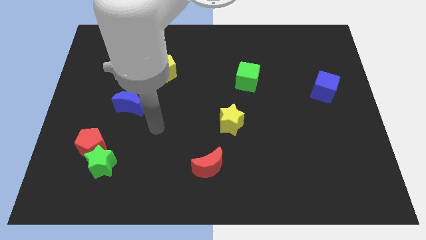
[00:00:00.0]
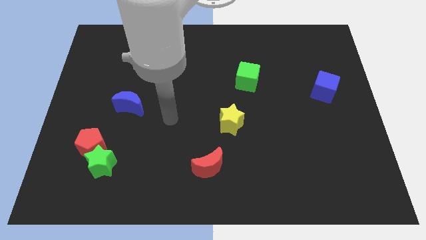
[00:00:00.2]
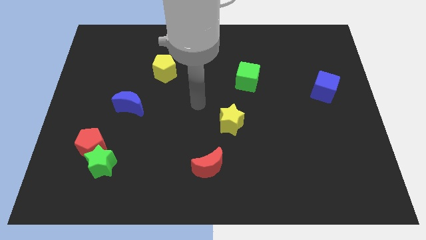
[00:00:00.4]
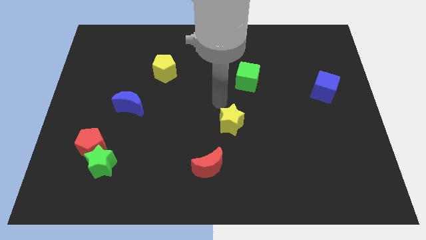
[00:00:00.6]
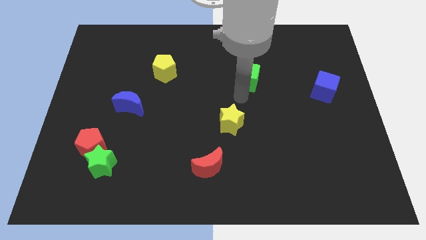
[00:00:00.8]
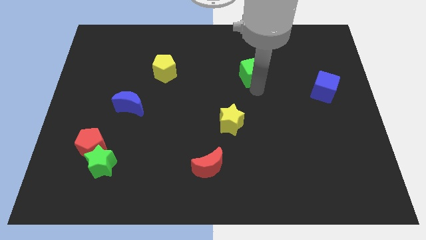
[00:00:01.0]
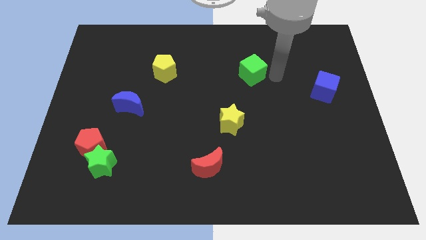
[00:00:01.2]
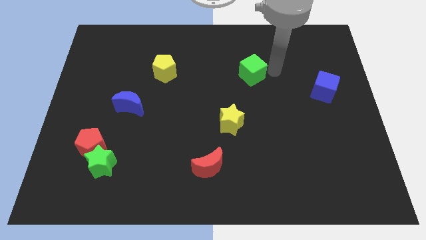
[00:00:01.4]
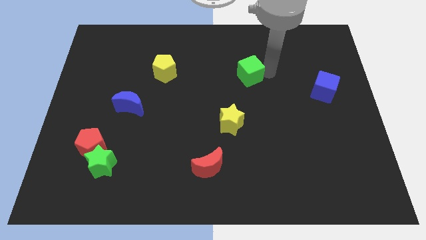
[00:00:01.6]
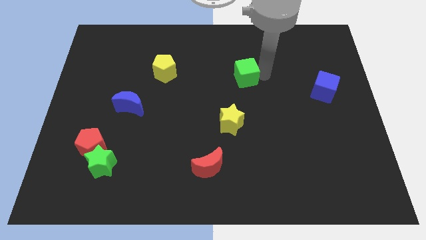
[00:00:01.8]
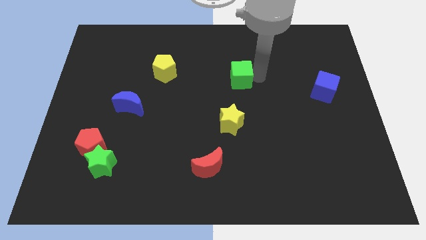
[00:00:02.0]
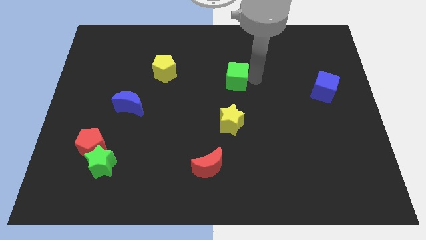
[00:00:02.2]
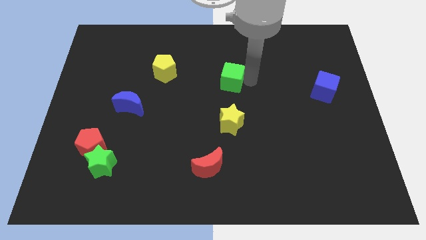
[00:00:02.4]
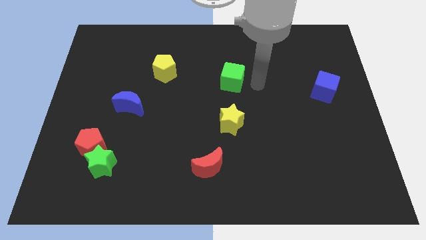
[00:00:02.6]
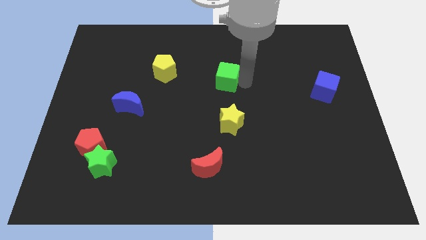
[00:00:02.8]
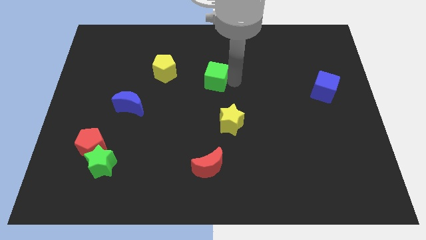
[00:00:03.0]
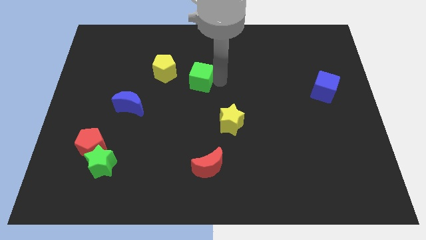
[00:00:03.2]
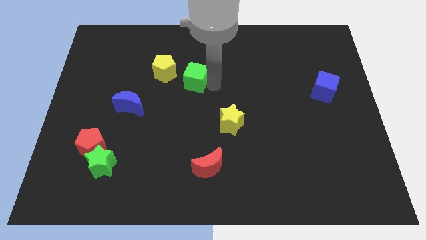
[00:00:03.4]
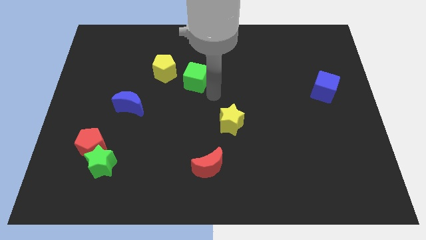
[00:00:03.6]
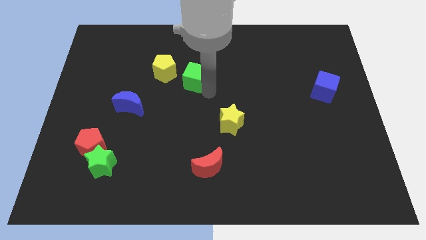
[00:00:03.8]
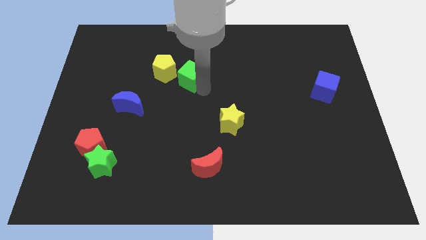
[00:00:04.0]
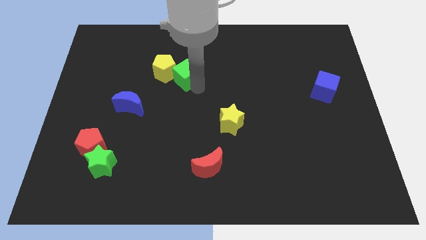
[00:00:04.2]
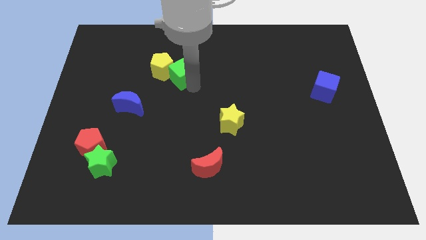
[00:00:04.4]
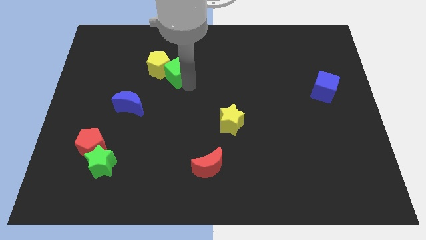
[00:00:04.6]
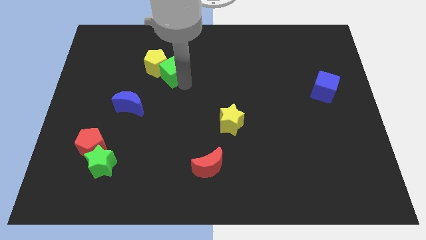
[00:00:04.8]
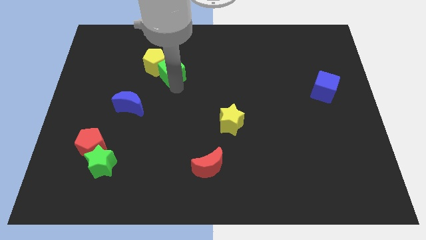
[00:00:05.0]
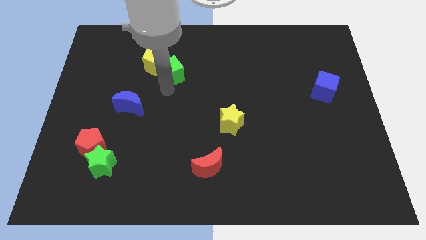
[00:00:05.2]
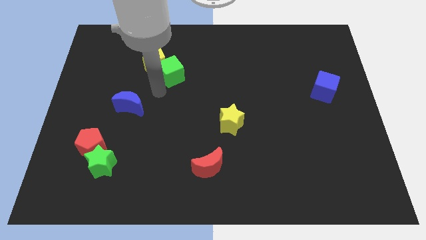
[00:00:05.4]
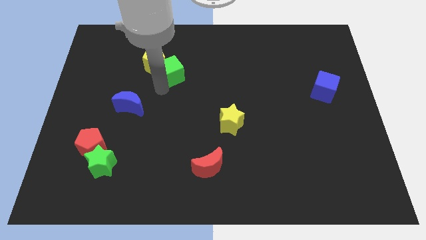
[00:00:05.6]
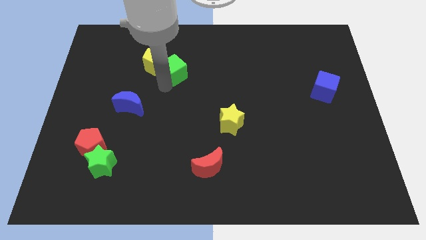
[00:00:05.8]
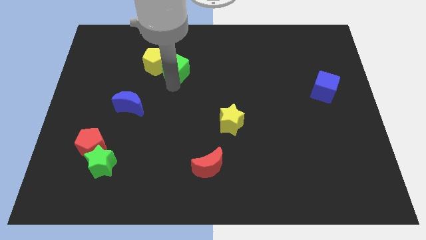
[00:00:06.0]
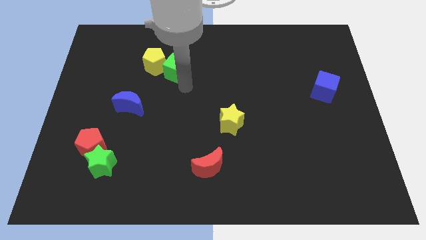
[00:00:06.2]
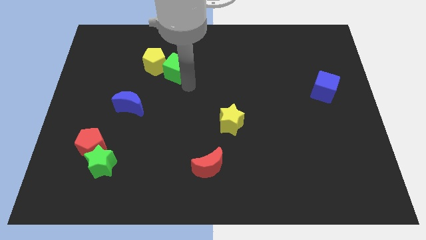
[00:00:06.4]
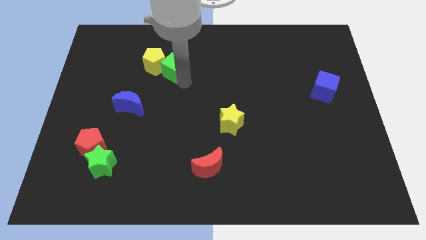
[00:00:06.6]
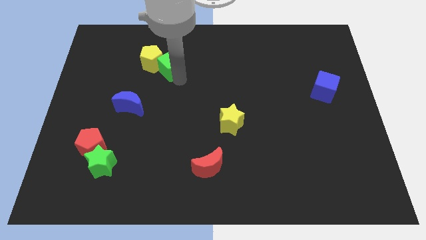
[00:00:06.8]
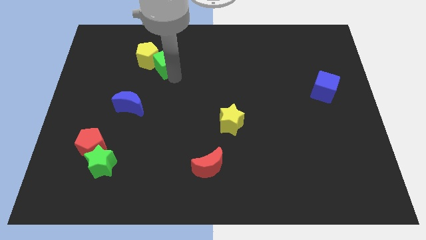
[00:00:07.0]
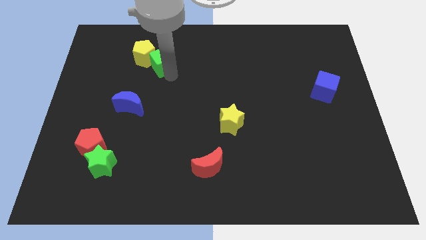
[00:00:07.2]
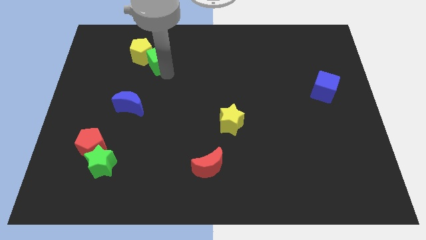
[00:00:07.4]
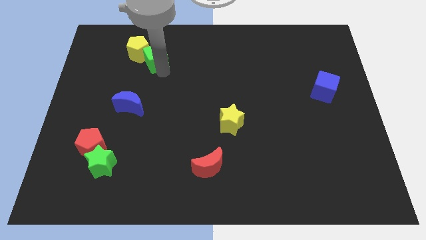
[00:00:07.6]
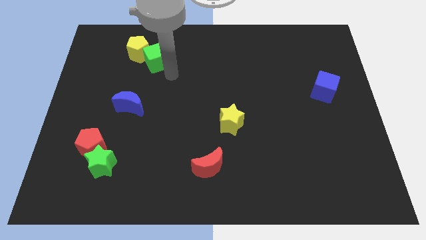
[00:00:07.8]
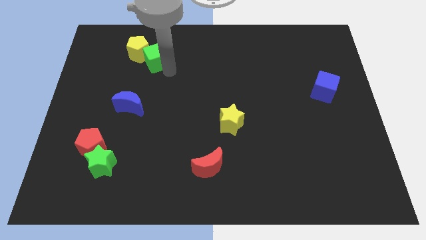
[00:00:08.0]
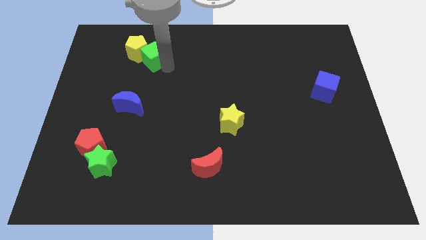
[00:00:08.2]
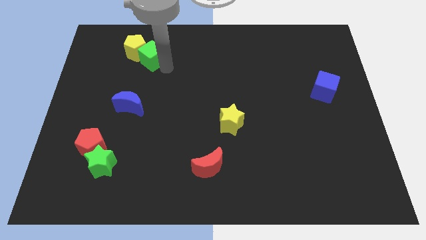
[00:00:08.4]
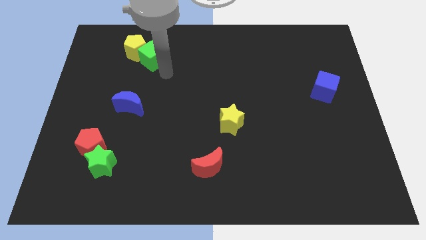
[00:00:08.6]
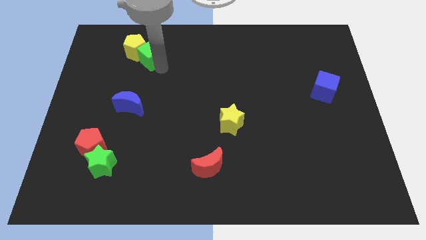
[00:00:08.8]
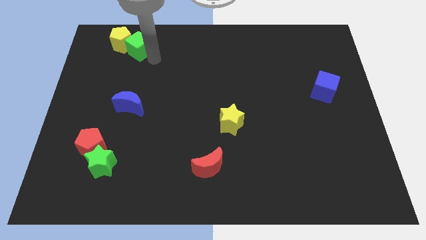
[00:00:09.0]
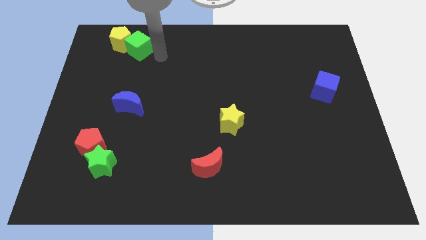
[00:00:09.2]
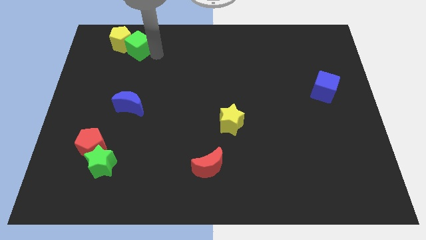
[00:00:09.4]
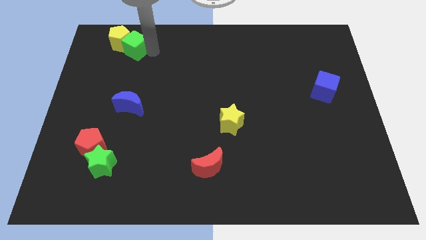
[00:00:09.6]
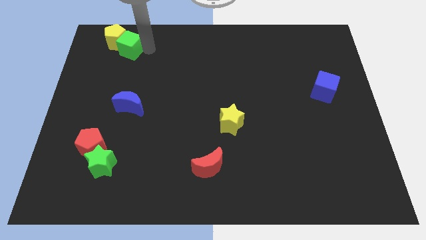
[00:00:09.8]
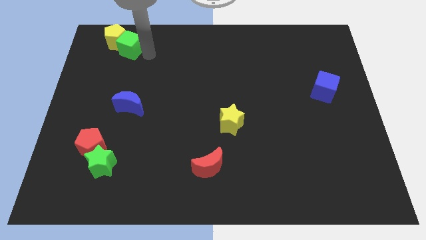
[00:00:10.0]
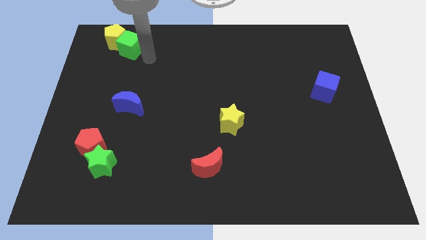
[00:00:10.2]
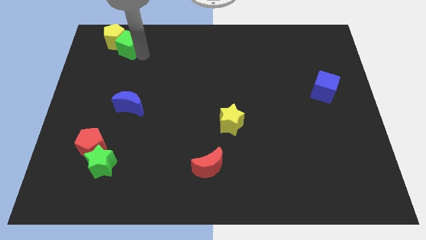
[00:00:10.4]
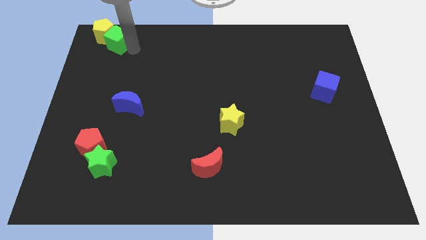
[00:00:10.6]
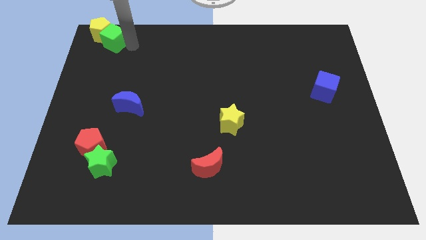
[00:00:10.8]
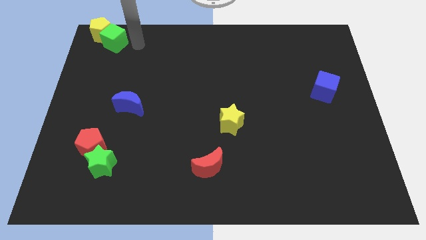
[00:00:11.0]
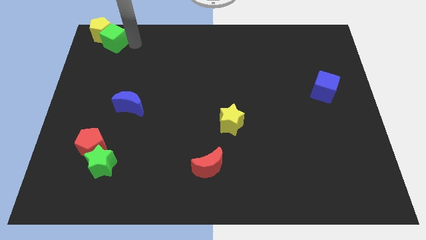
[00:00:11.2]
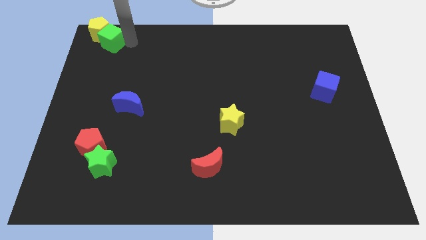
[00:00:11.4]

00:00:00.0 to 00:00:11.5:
put the green cube to the top left of the board
